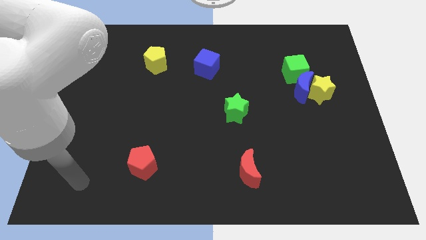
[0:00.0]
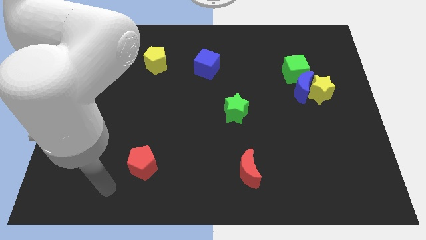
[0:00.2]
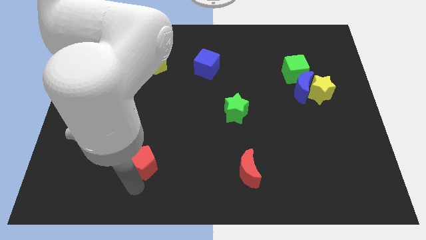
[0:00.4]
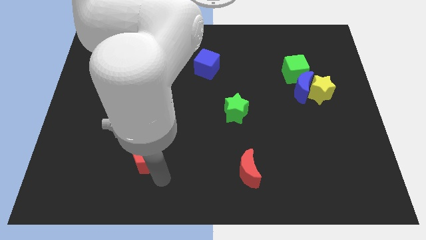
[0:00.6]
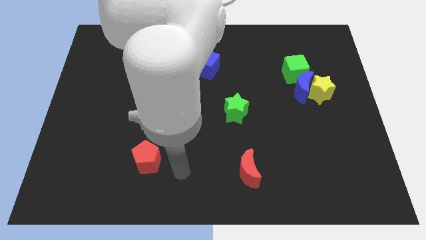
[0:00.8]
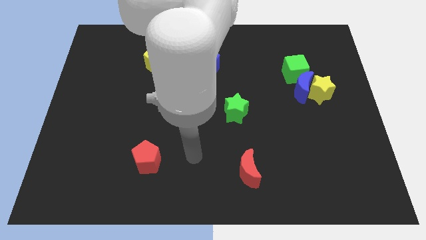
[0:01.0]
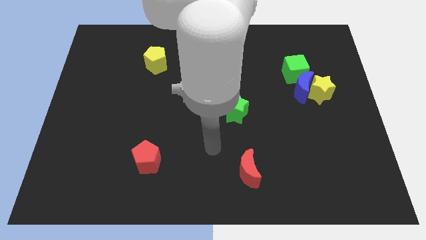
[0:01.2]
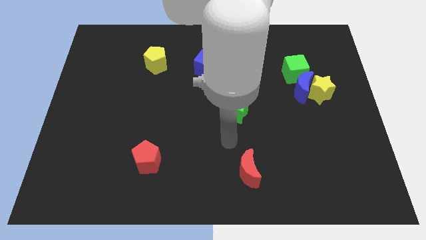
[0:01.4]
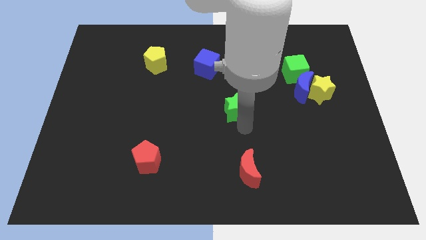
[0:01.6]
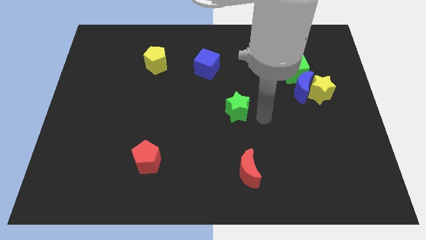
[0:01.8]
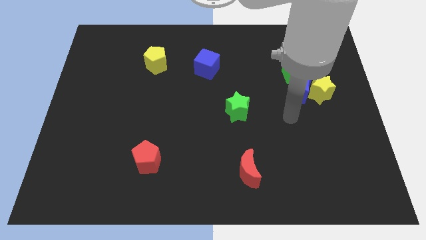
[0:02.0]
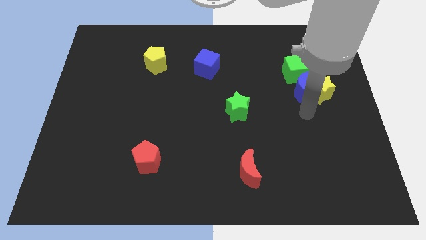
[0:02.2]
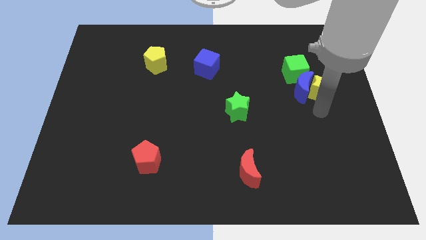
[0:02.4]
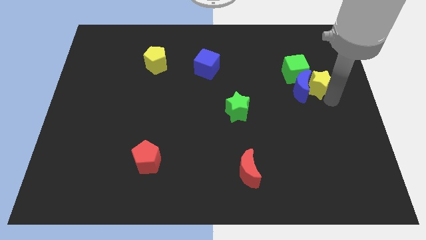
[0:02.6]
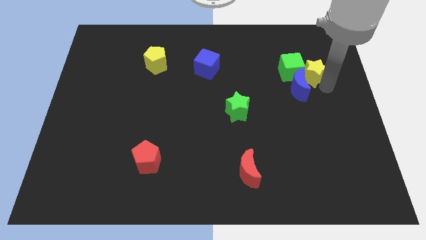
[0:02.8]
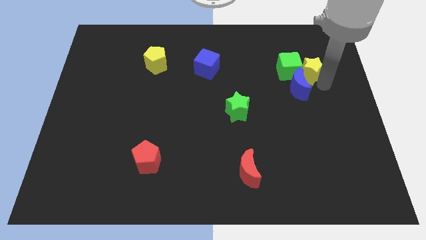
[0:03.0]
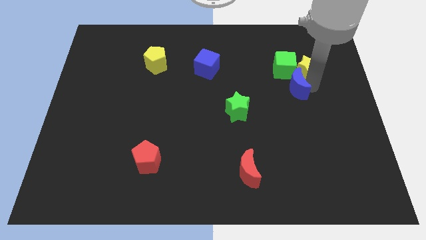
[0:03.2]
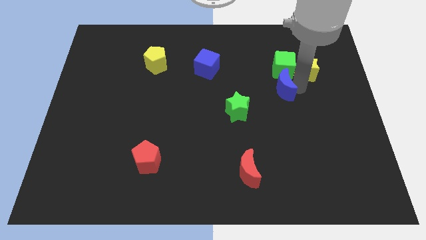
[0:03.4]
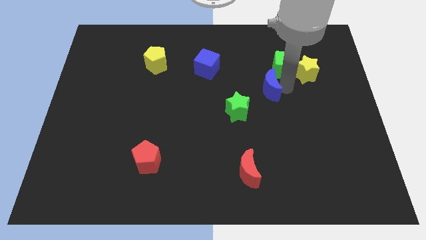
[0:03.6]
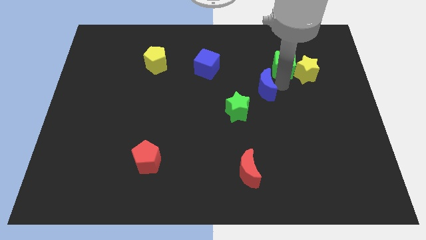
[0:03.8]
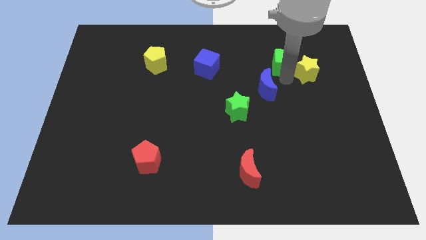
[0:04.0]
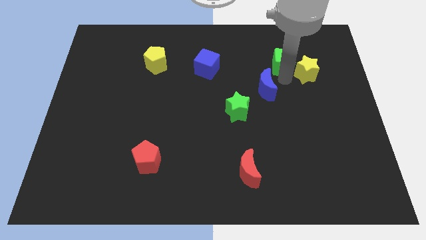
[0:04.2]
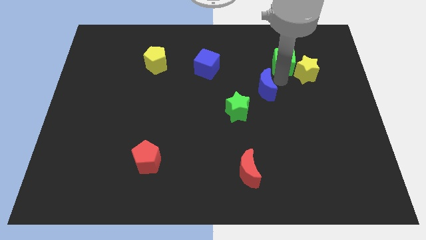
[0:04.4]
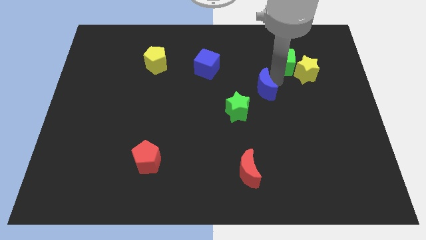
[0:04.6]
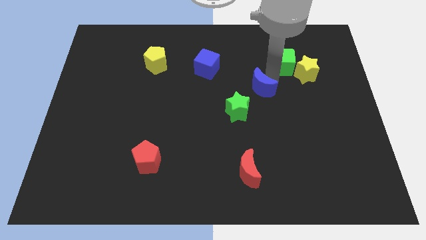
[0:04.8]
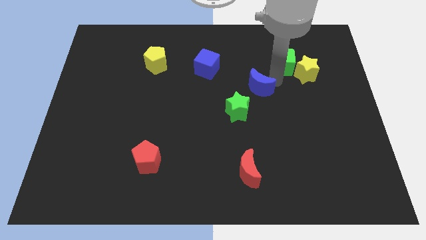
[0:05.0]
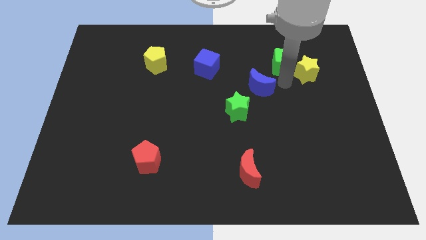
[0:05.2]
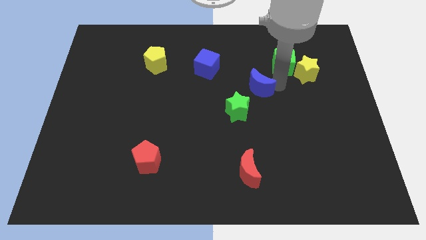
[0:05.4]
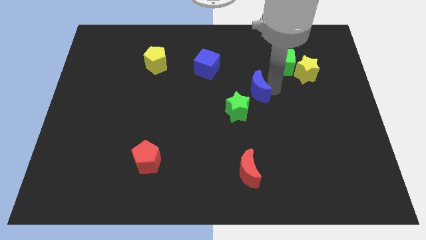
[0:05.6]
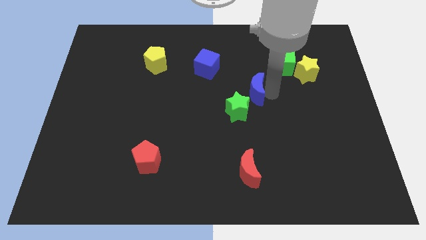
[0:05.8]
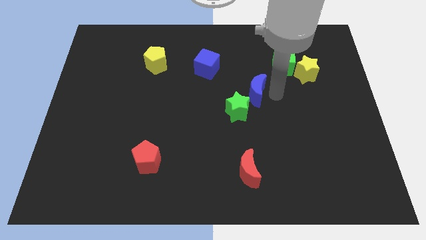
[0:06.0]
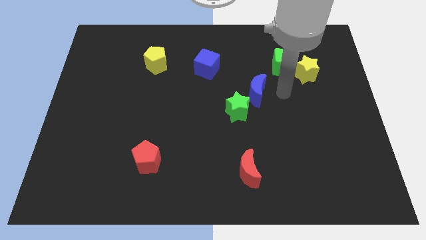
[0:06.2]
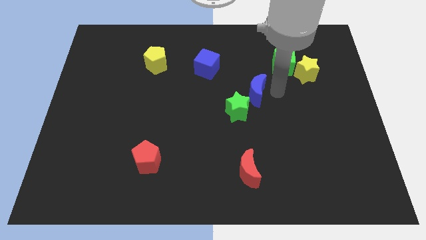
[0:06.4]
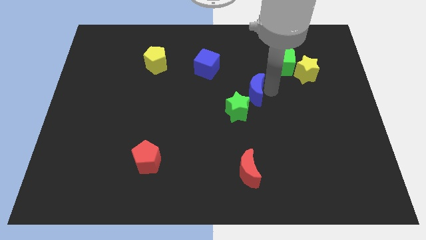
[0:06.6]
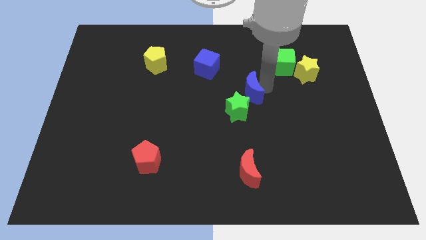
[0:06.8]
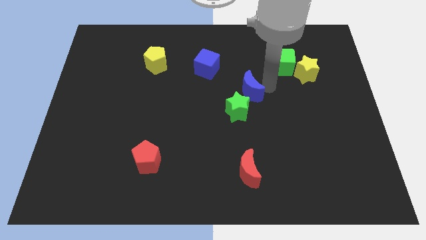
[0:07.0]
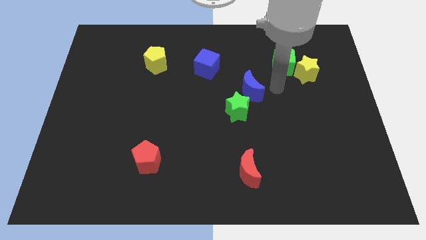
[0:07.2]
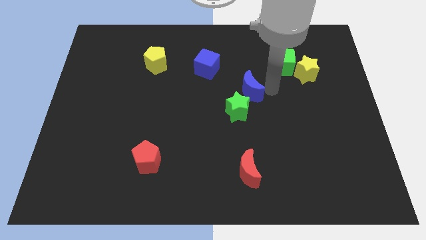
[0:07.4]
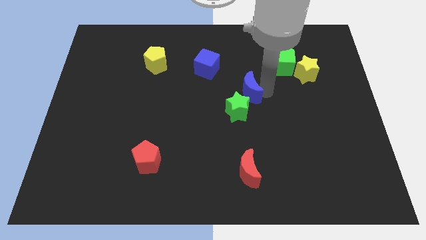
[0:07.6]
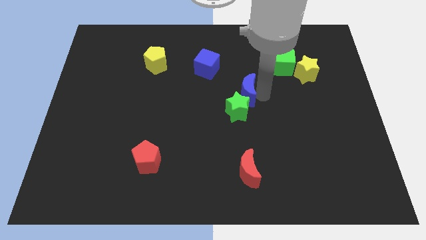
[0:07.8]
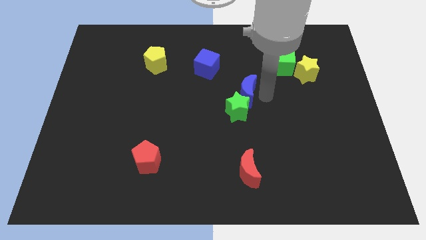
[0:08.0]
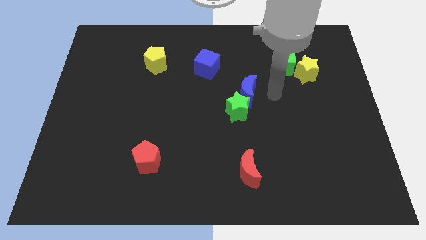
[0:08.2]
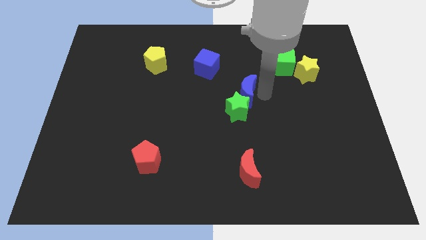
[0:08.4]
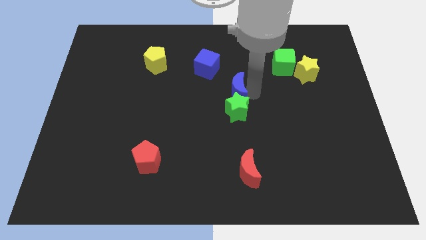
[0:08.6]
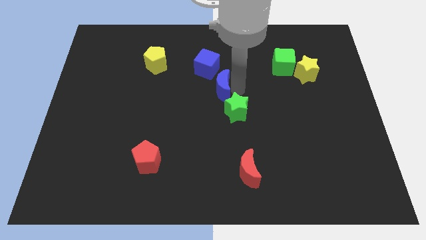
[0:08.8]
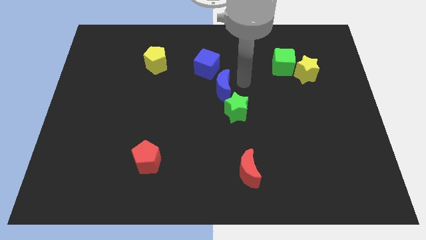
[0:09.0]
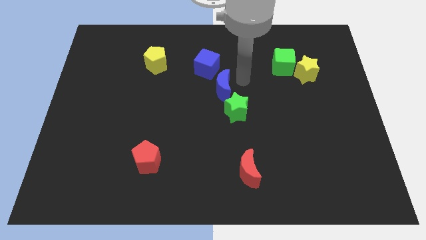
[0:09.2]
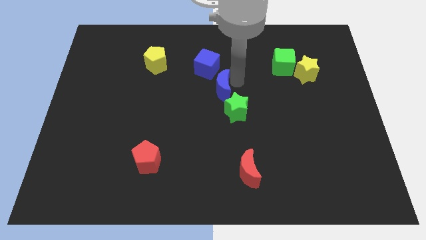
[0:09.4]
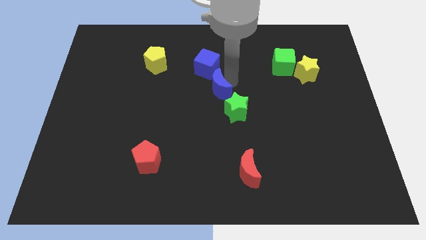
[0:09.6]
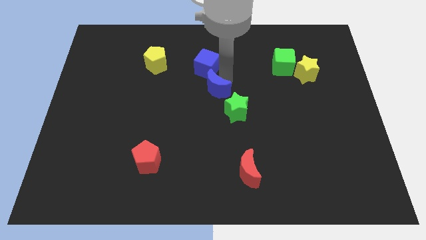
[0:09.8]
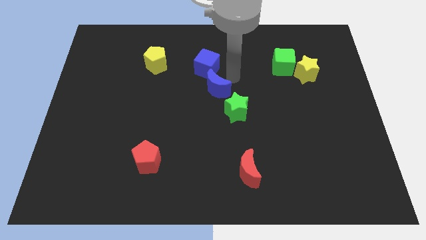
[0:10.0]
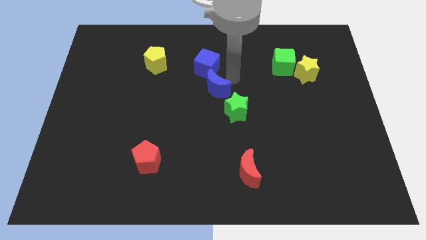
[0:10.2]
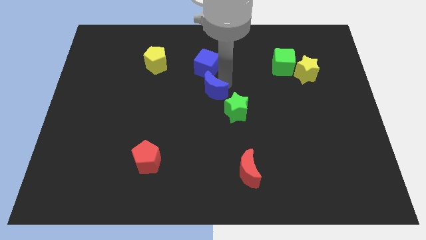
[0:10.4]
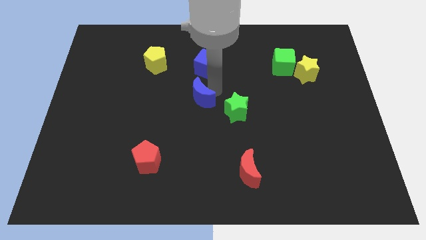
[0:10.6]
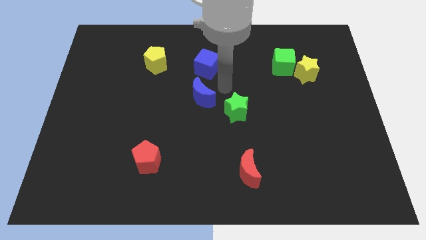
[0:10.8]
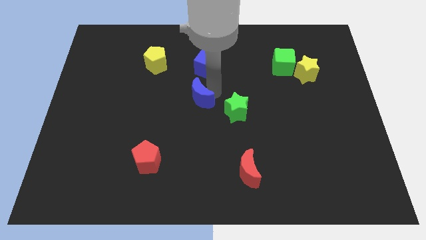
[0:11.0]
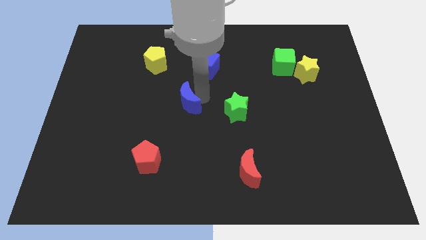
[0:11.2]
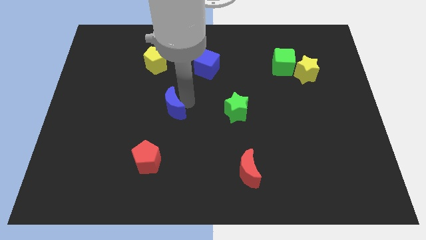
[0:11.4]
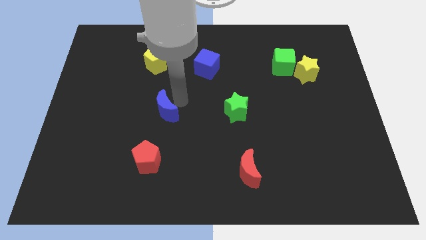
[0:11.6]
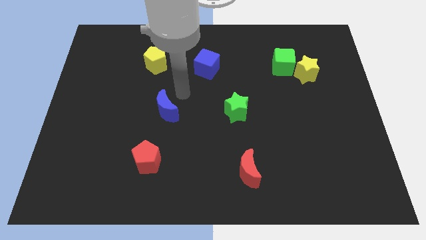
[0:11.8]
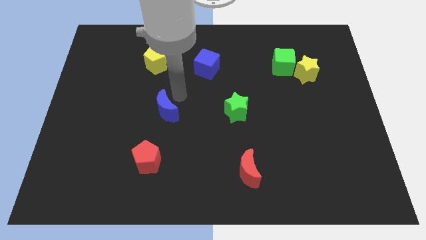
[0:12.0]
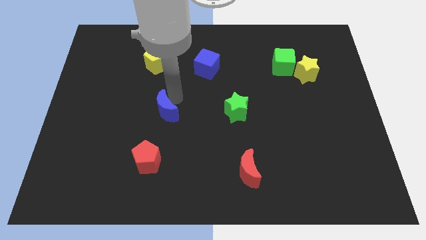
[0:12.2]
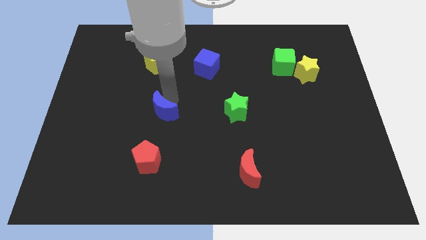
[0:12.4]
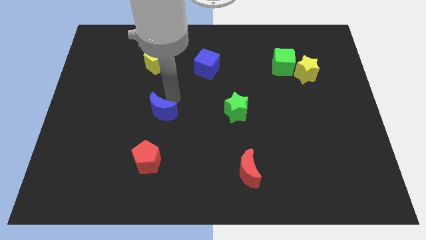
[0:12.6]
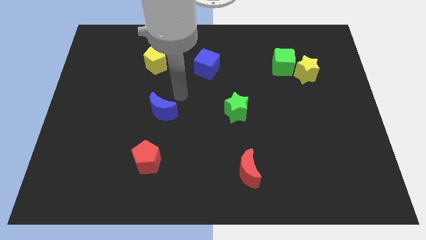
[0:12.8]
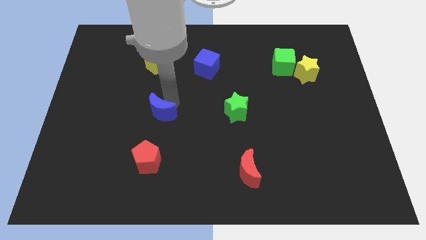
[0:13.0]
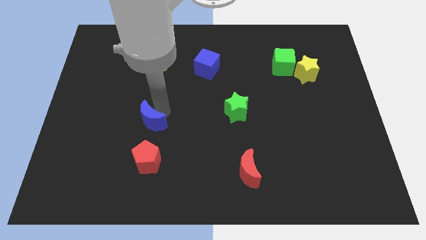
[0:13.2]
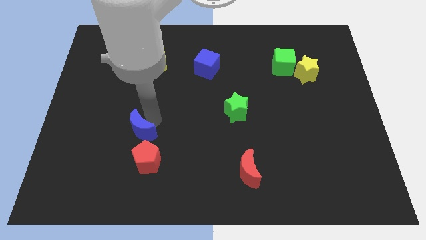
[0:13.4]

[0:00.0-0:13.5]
move the blue moon to the top left side of the red pentagon

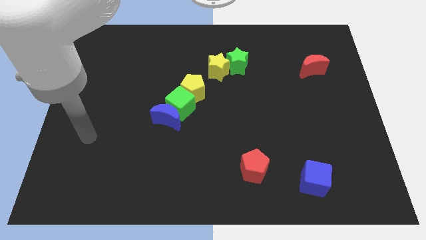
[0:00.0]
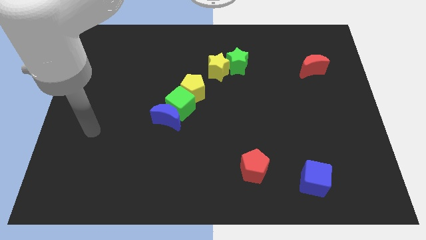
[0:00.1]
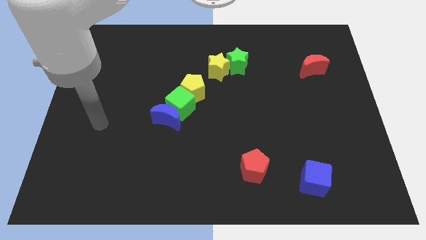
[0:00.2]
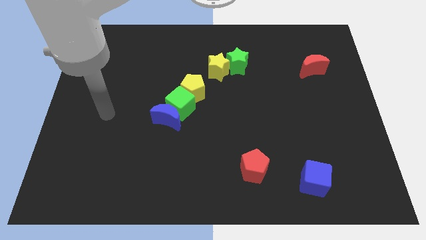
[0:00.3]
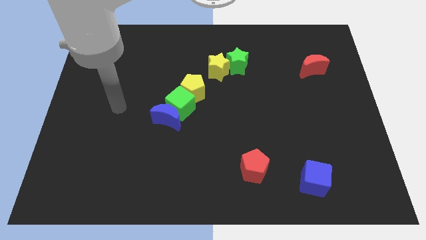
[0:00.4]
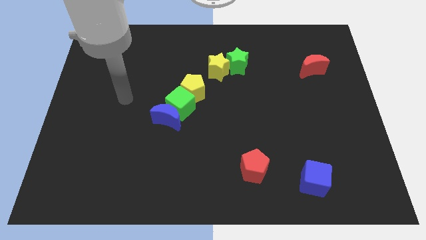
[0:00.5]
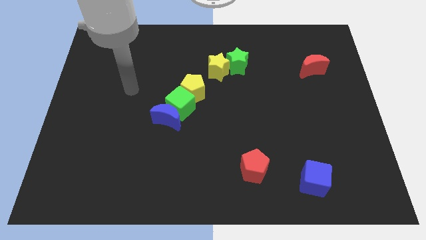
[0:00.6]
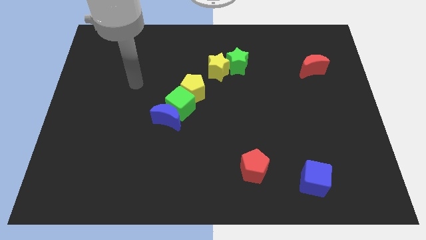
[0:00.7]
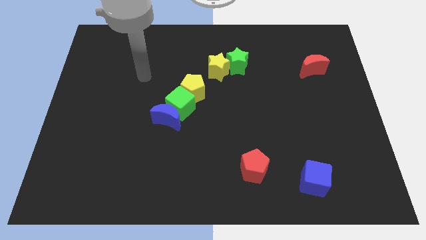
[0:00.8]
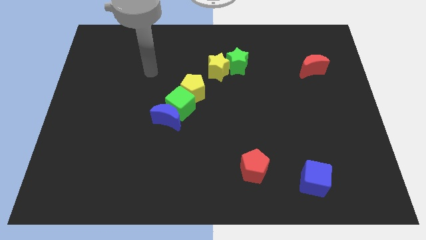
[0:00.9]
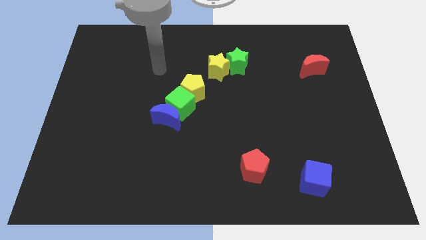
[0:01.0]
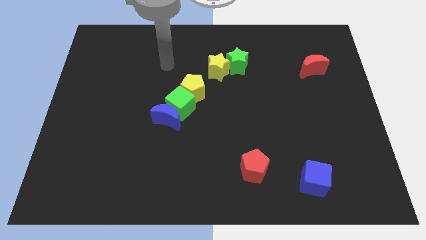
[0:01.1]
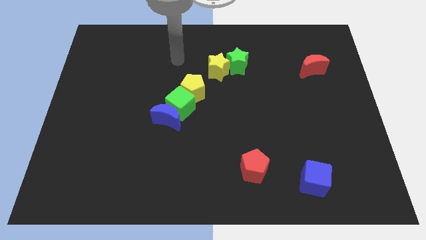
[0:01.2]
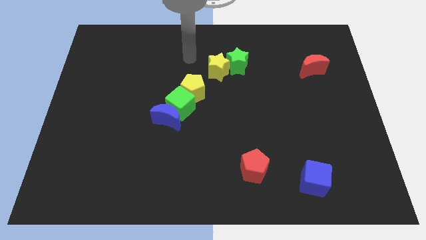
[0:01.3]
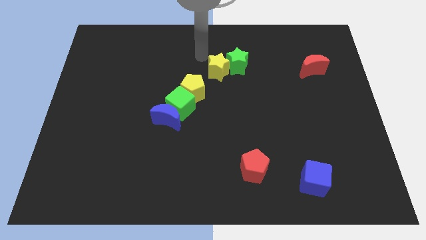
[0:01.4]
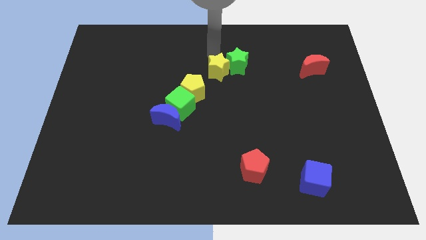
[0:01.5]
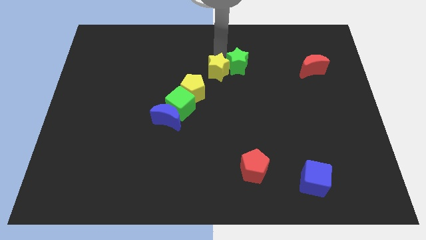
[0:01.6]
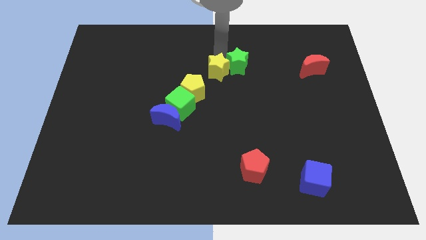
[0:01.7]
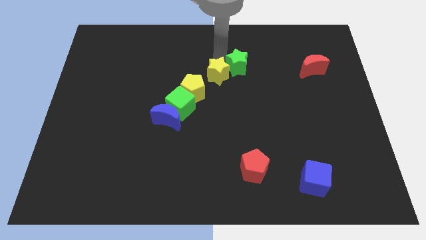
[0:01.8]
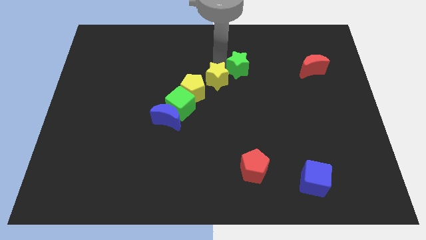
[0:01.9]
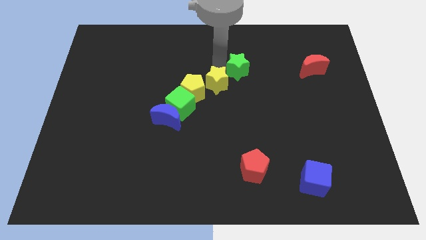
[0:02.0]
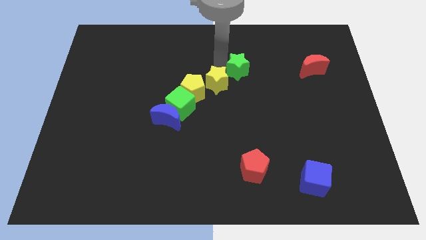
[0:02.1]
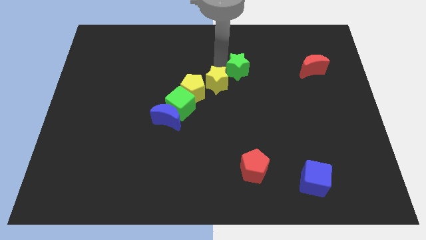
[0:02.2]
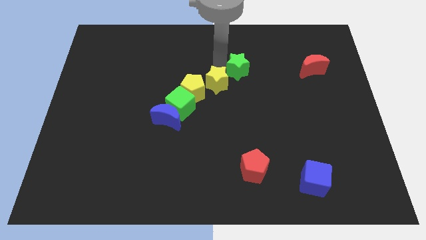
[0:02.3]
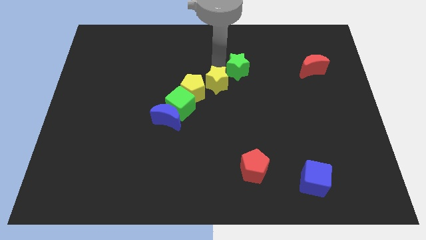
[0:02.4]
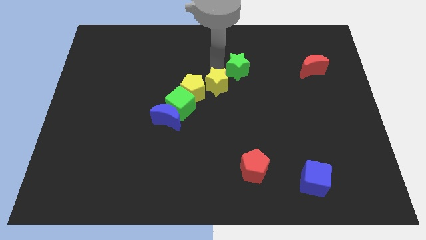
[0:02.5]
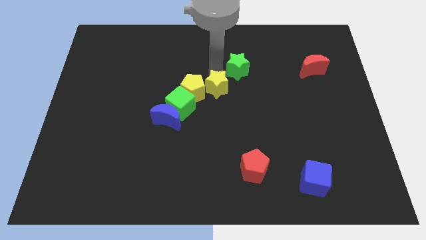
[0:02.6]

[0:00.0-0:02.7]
move the yellow star to the bottom right of the yellow pentagon
